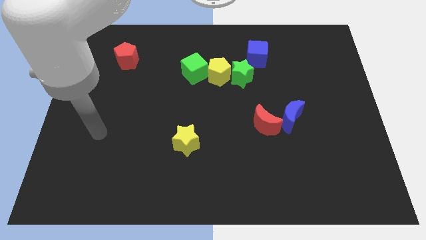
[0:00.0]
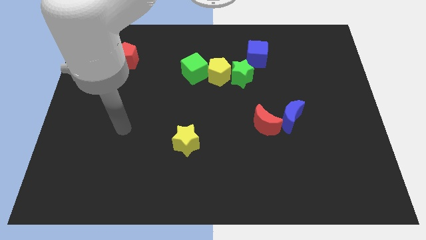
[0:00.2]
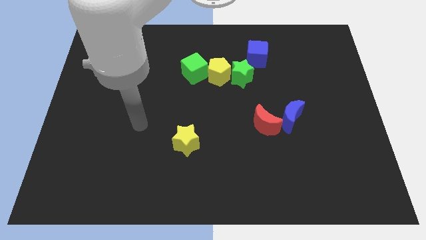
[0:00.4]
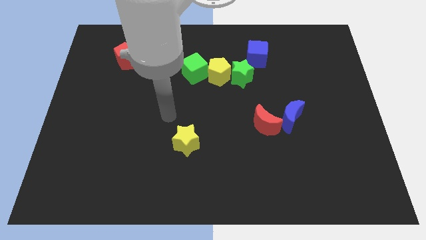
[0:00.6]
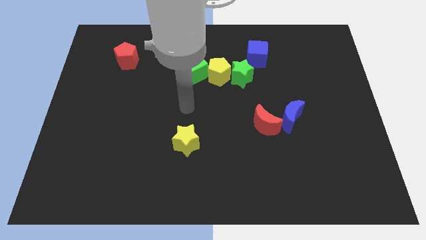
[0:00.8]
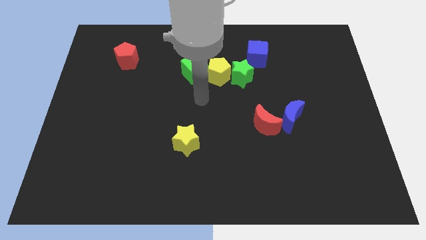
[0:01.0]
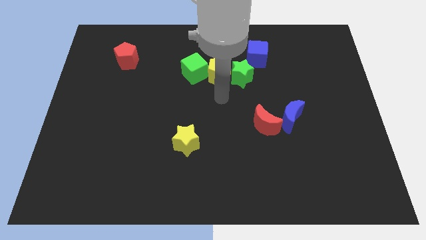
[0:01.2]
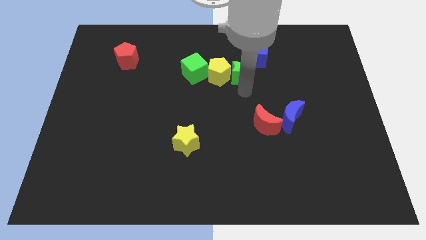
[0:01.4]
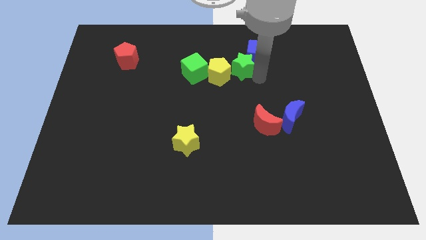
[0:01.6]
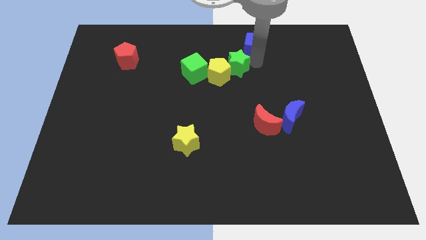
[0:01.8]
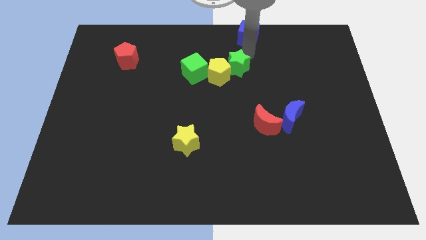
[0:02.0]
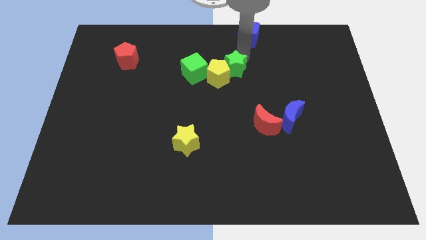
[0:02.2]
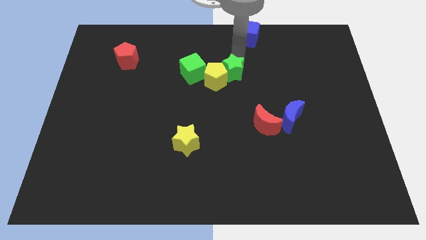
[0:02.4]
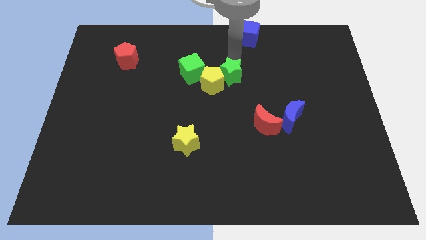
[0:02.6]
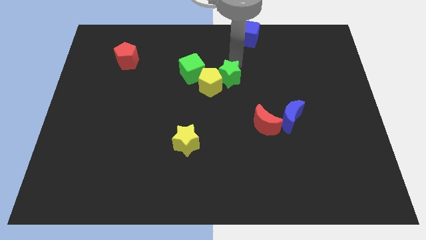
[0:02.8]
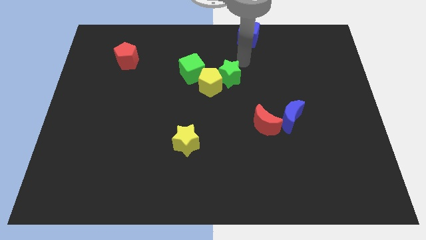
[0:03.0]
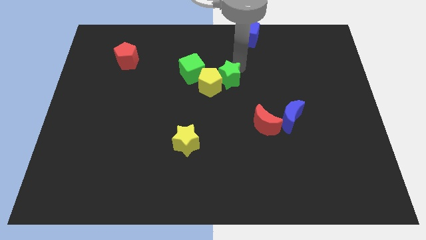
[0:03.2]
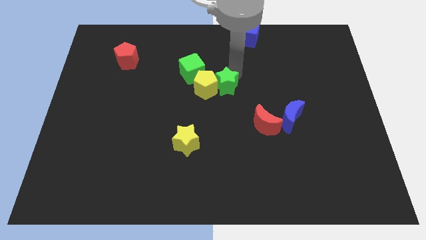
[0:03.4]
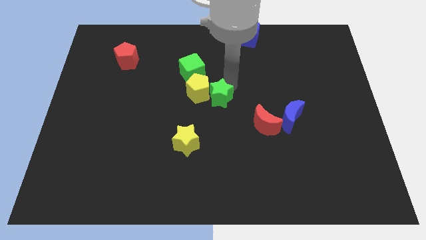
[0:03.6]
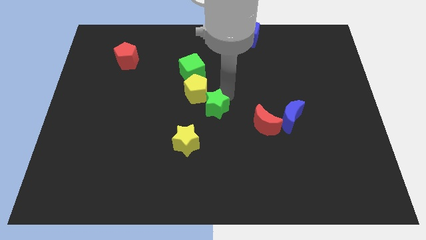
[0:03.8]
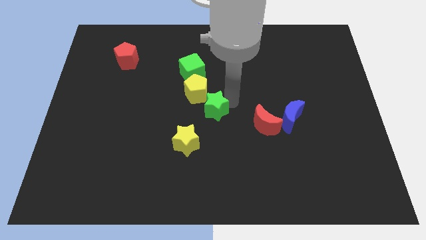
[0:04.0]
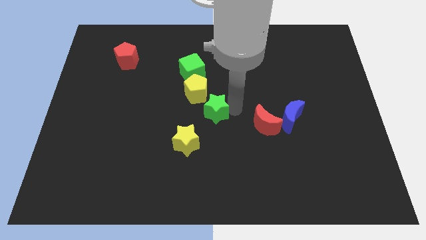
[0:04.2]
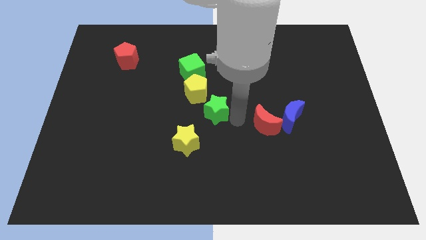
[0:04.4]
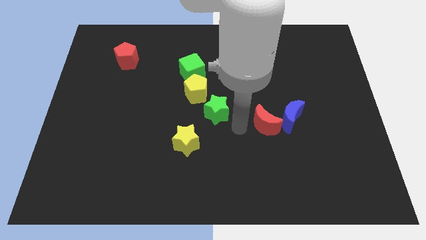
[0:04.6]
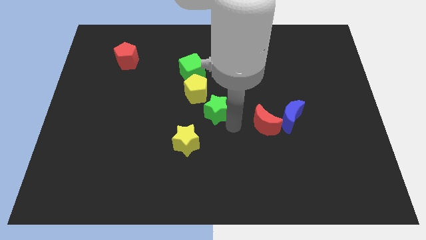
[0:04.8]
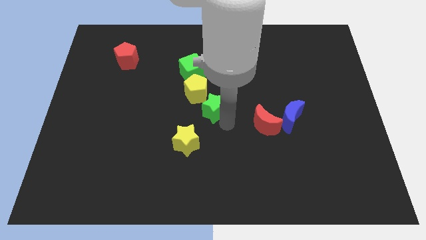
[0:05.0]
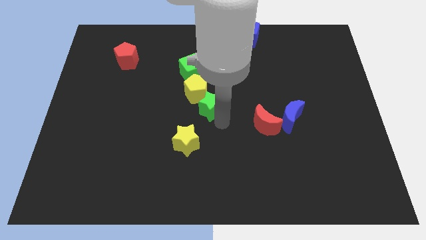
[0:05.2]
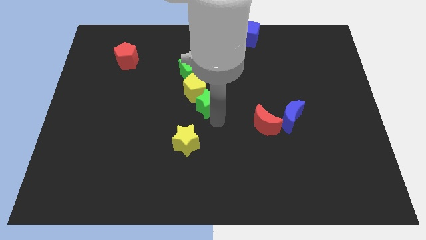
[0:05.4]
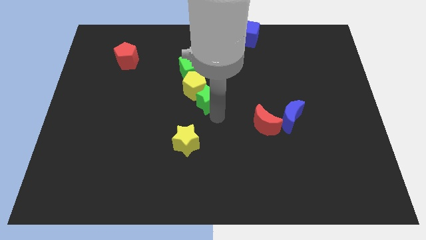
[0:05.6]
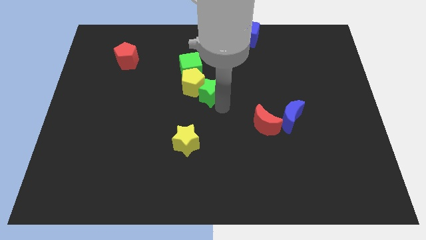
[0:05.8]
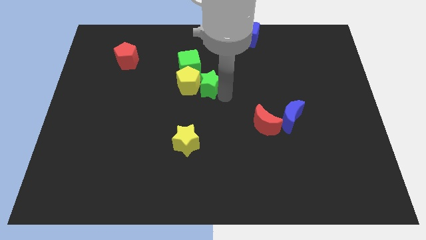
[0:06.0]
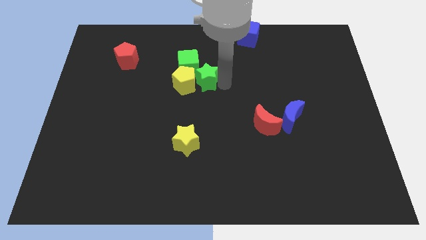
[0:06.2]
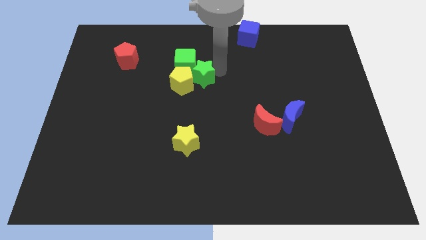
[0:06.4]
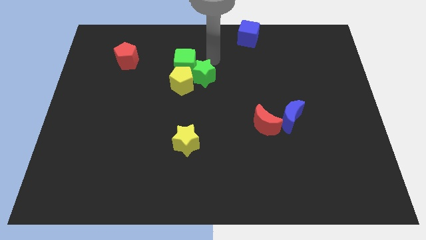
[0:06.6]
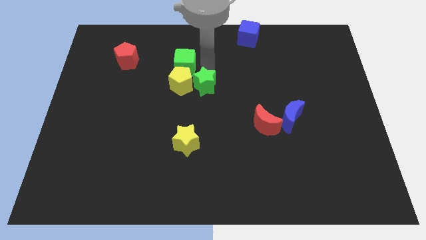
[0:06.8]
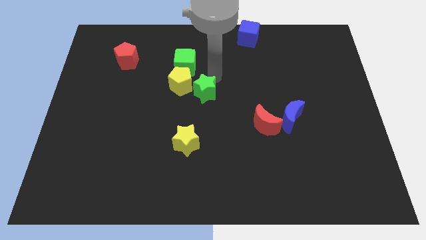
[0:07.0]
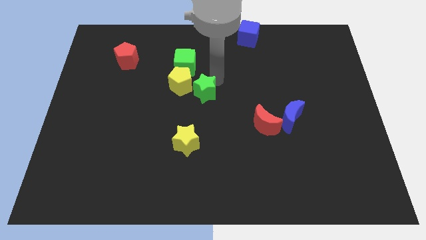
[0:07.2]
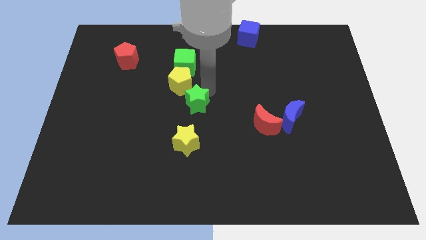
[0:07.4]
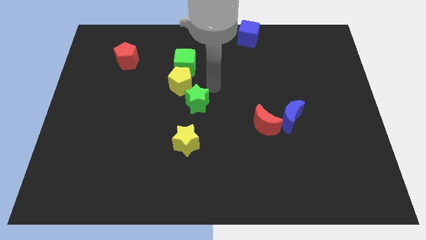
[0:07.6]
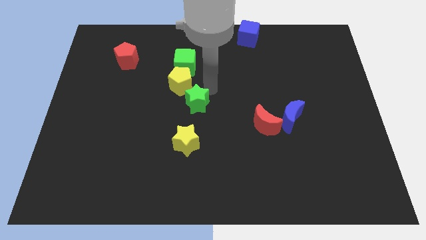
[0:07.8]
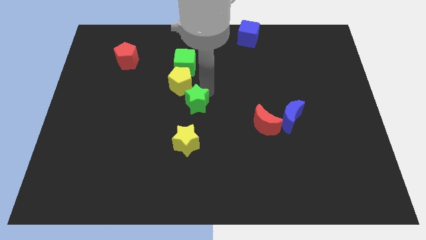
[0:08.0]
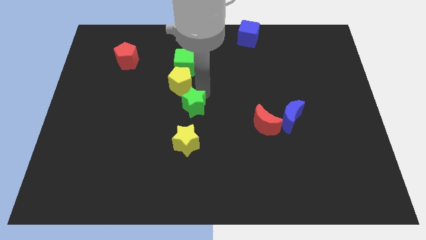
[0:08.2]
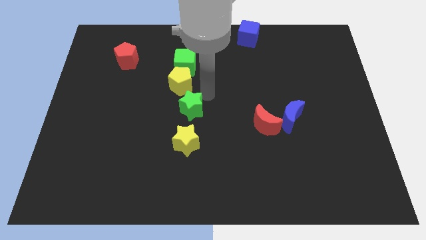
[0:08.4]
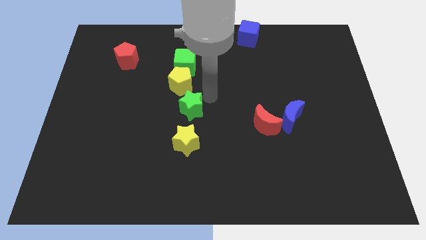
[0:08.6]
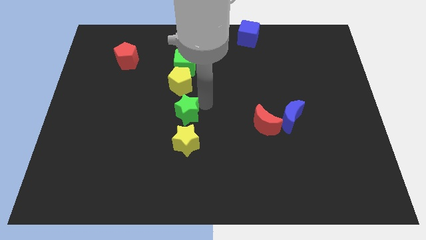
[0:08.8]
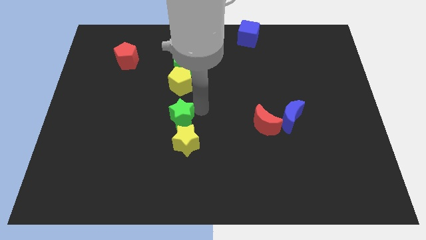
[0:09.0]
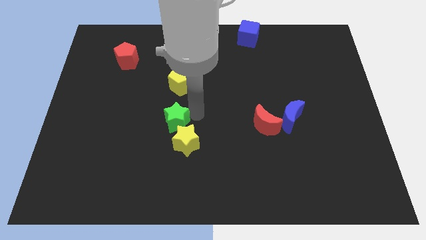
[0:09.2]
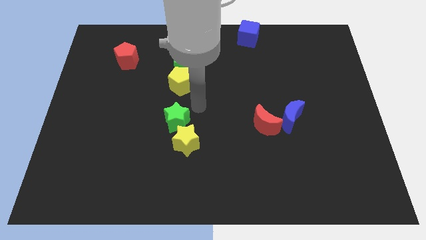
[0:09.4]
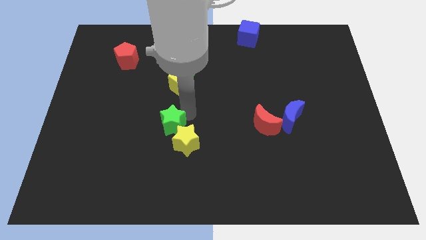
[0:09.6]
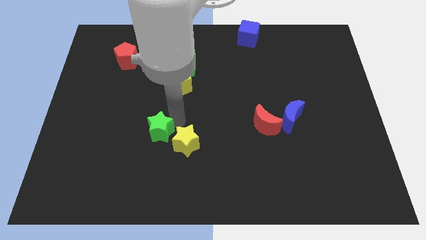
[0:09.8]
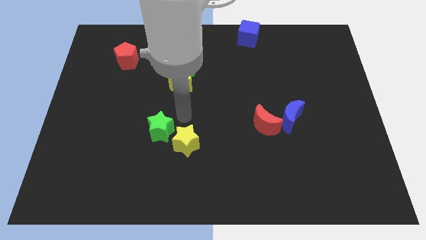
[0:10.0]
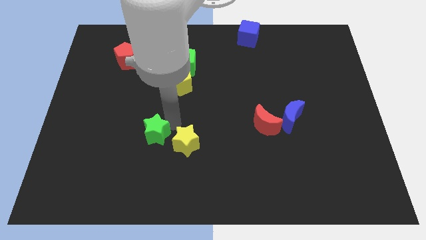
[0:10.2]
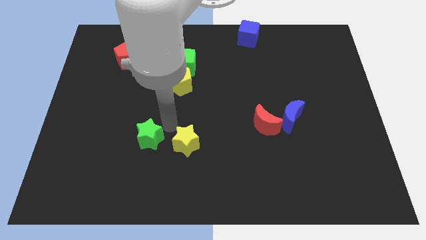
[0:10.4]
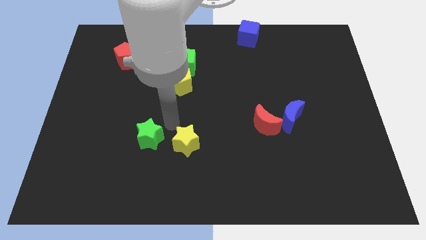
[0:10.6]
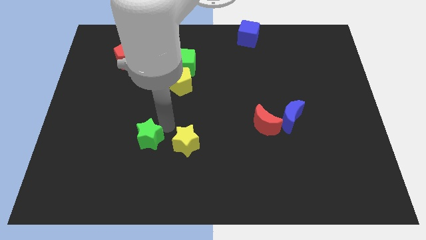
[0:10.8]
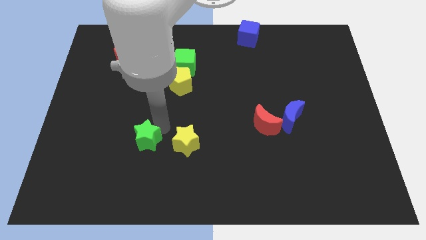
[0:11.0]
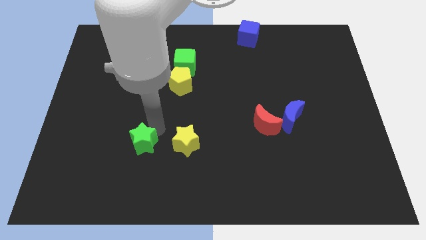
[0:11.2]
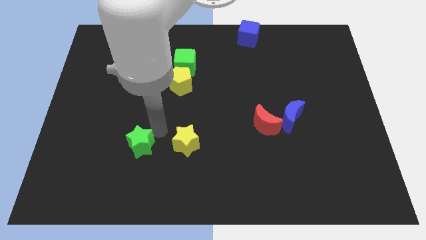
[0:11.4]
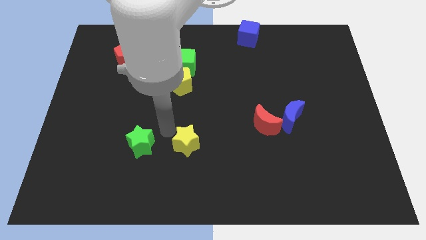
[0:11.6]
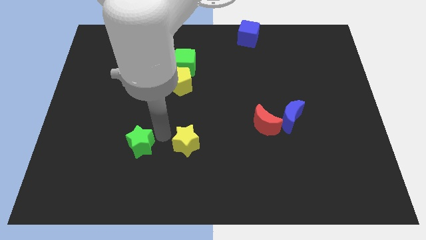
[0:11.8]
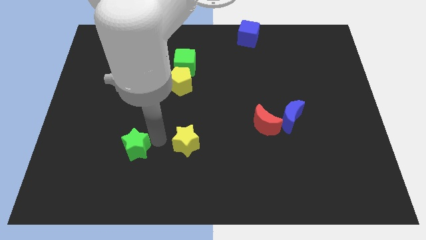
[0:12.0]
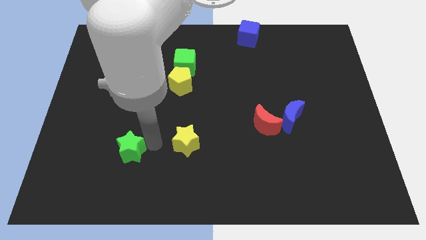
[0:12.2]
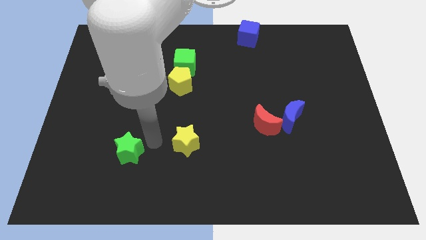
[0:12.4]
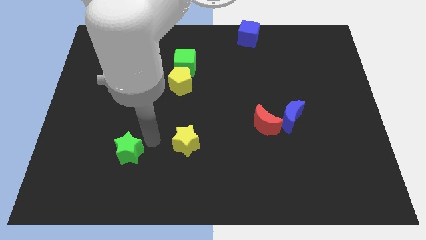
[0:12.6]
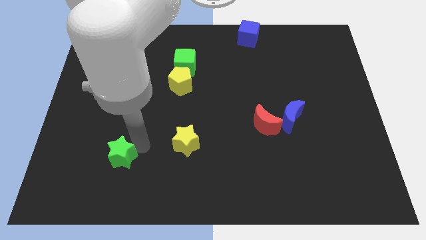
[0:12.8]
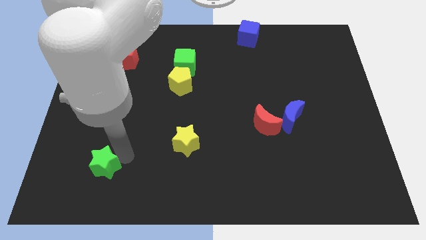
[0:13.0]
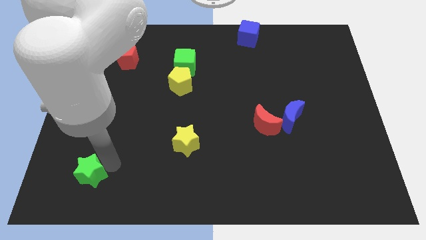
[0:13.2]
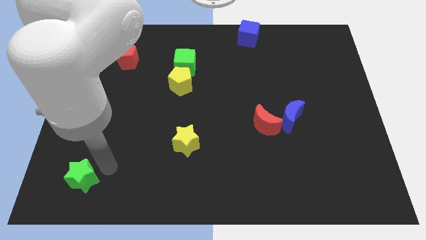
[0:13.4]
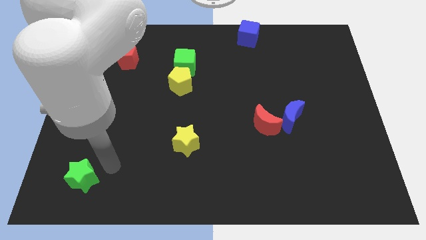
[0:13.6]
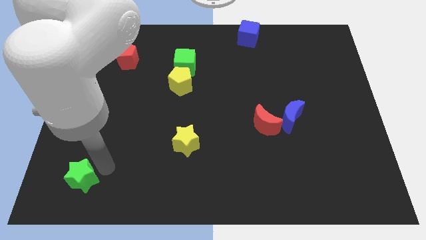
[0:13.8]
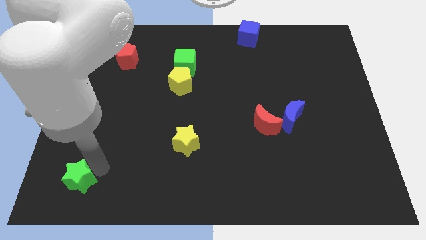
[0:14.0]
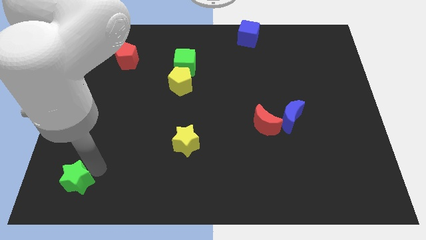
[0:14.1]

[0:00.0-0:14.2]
put the green star to the bottom left corner
